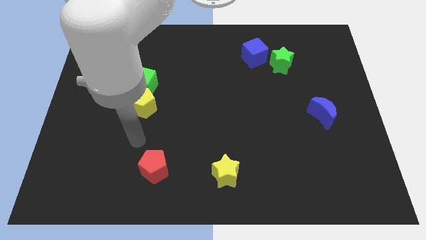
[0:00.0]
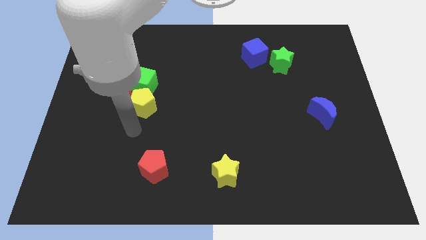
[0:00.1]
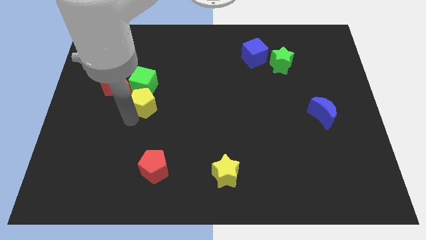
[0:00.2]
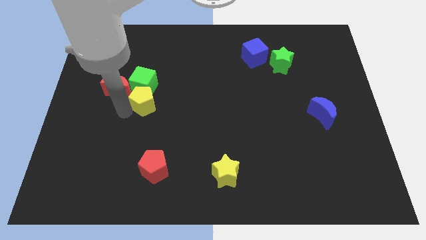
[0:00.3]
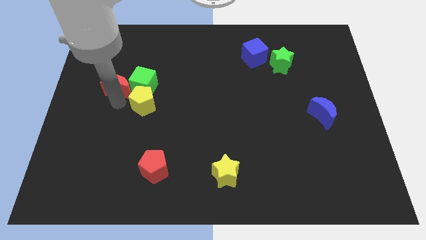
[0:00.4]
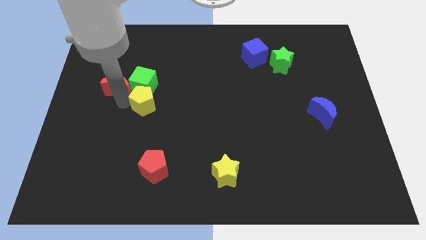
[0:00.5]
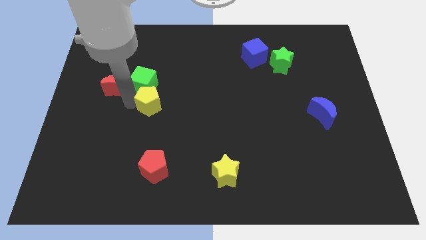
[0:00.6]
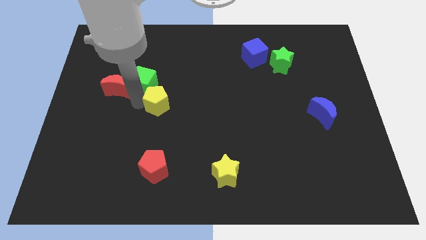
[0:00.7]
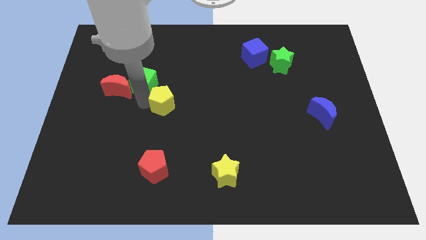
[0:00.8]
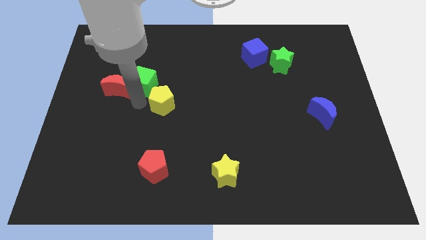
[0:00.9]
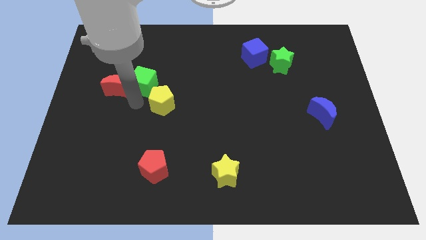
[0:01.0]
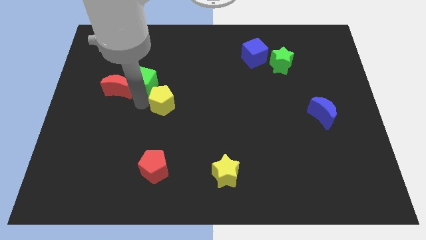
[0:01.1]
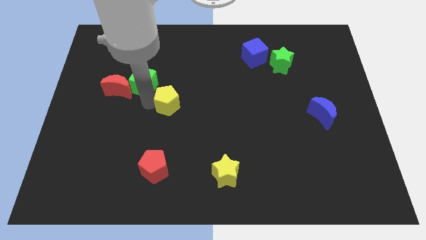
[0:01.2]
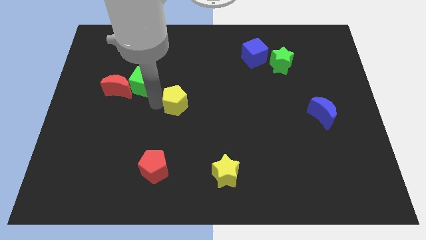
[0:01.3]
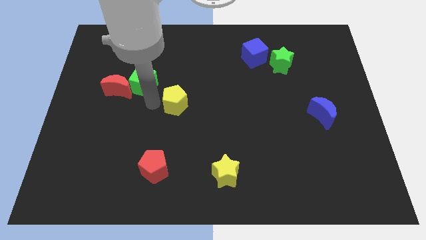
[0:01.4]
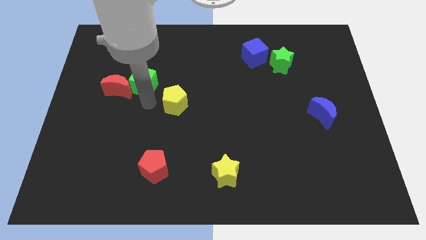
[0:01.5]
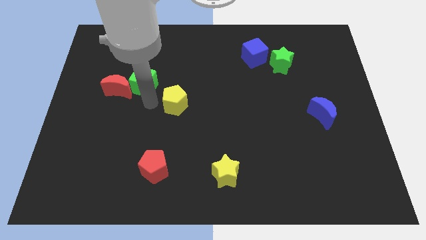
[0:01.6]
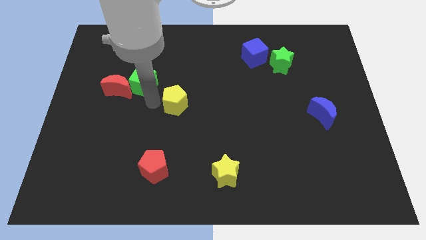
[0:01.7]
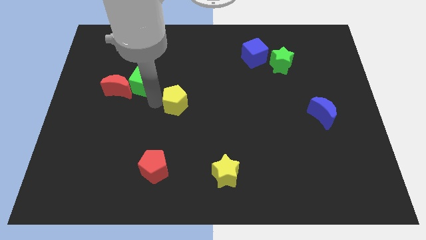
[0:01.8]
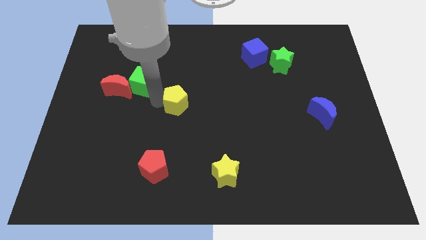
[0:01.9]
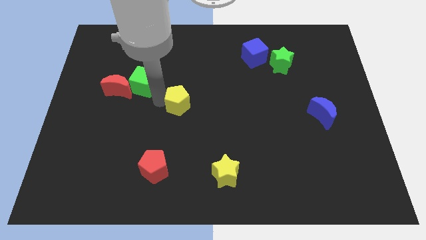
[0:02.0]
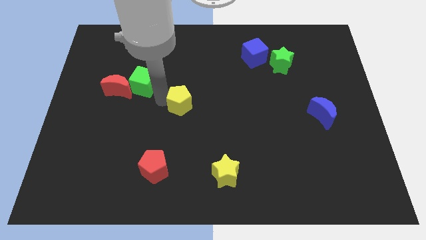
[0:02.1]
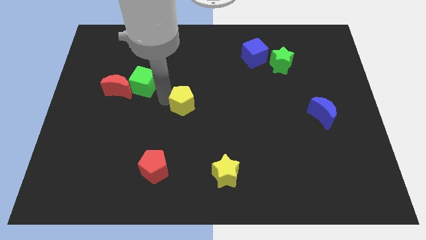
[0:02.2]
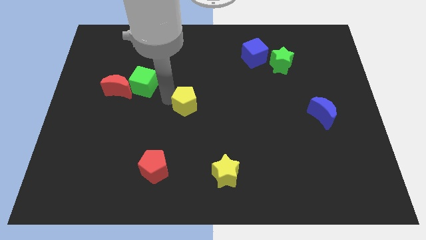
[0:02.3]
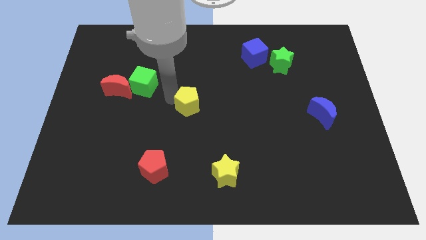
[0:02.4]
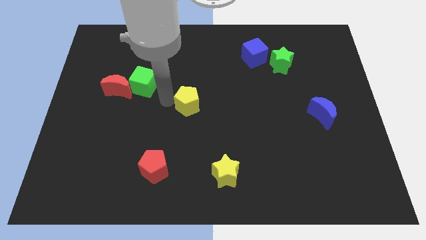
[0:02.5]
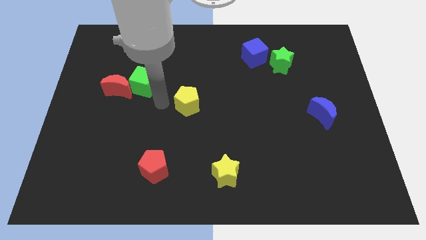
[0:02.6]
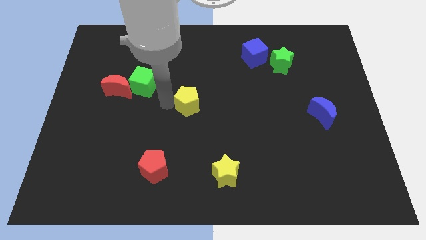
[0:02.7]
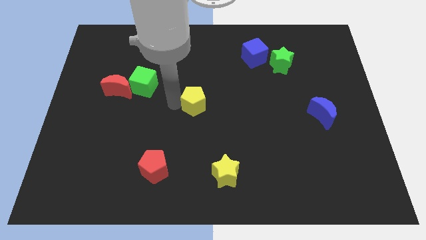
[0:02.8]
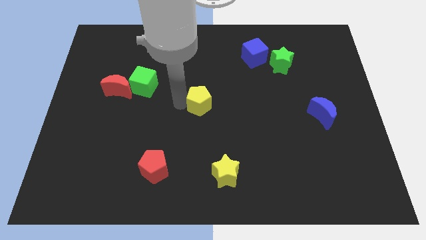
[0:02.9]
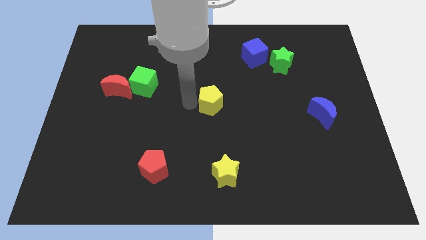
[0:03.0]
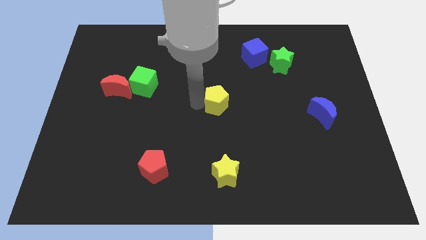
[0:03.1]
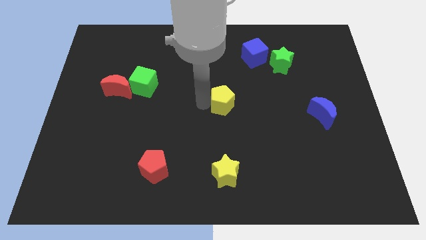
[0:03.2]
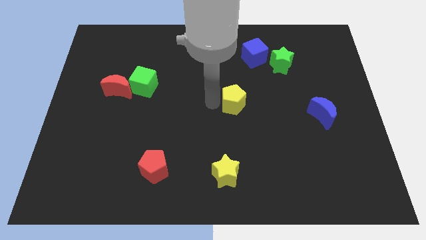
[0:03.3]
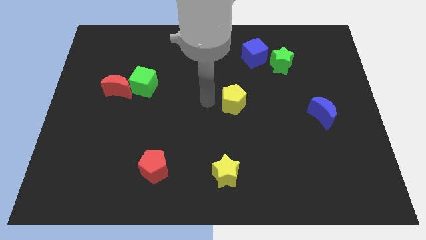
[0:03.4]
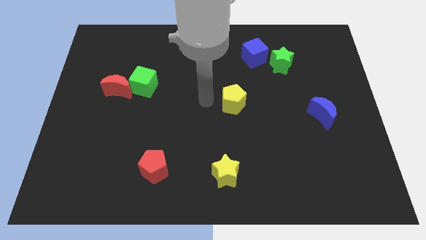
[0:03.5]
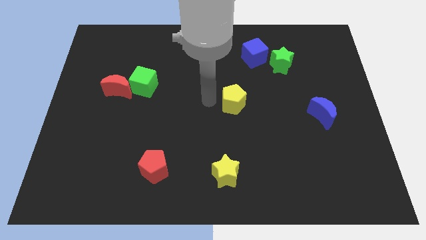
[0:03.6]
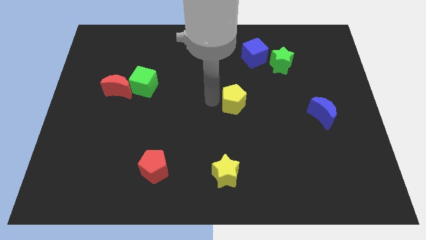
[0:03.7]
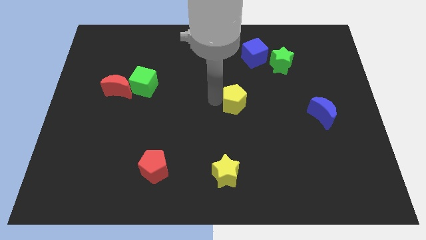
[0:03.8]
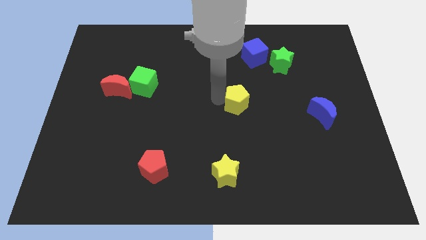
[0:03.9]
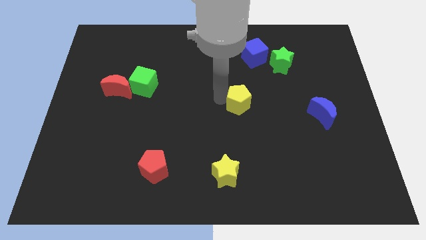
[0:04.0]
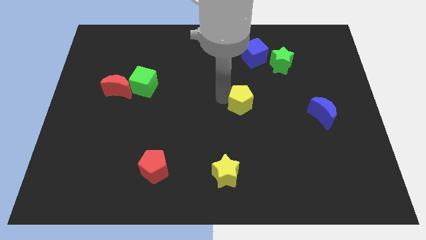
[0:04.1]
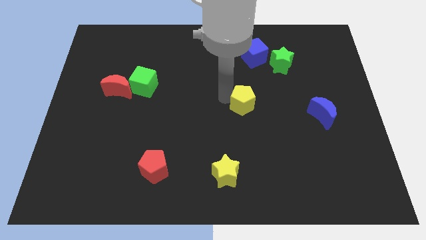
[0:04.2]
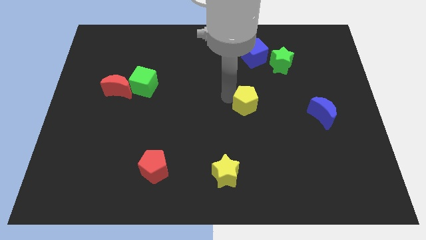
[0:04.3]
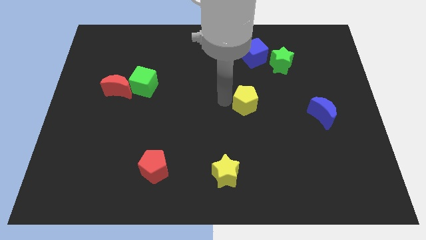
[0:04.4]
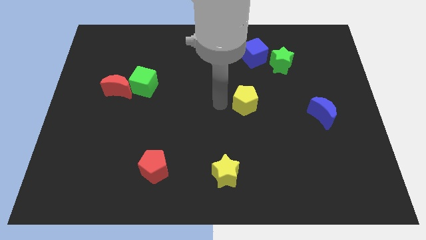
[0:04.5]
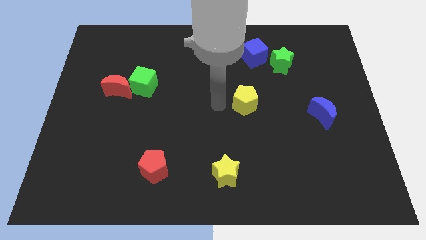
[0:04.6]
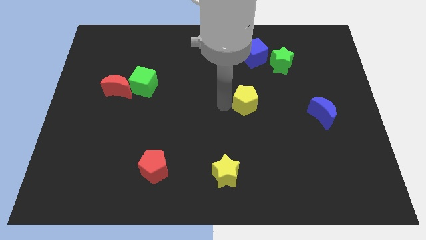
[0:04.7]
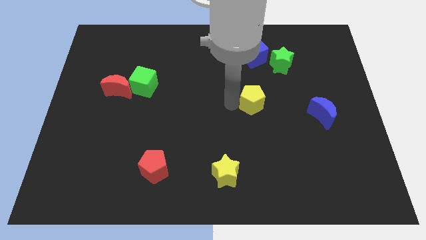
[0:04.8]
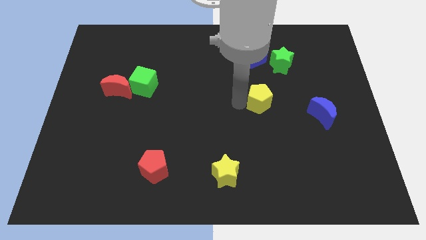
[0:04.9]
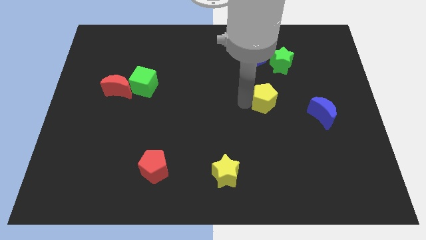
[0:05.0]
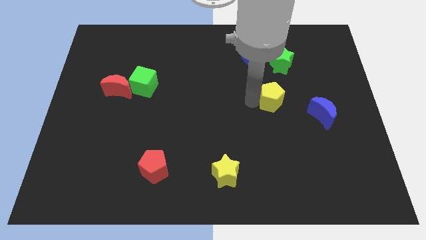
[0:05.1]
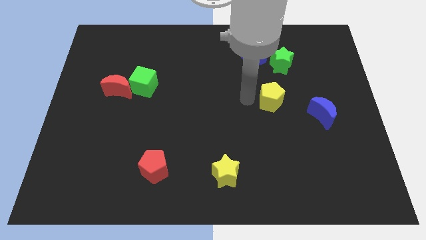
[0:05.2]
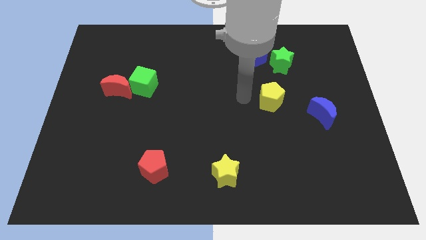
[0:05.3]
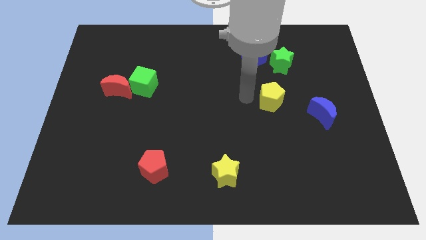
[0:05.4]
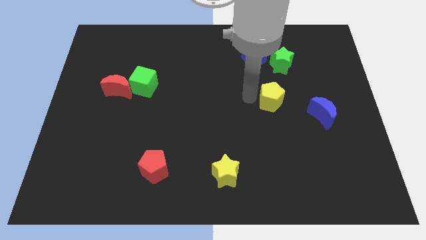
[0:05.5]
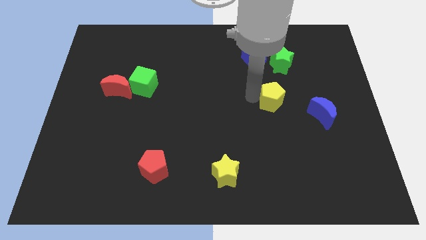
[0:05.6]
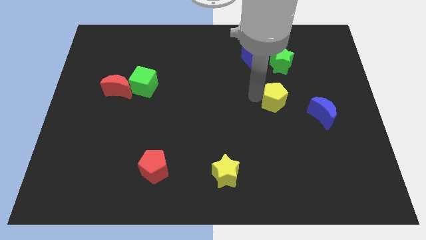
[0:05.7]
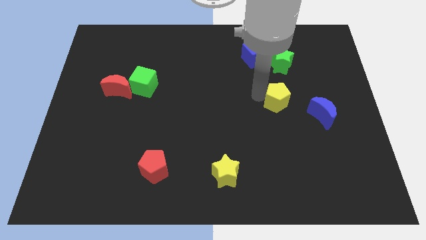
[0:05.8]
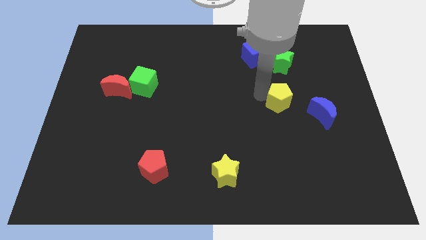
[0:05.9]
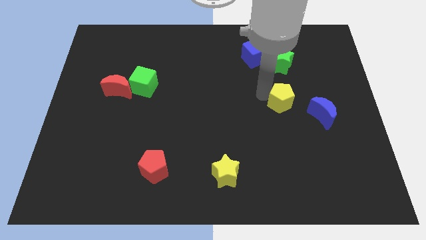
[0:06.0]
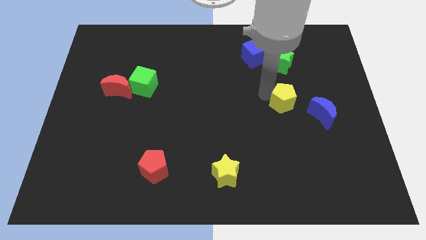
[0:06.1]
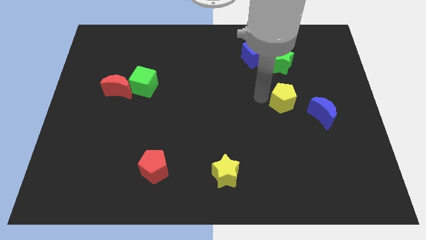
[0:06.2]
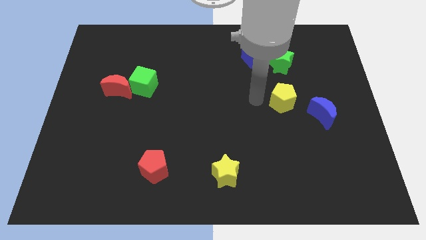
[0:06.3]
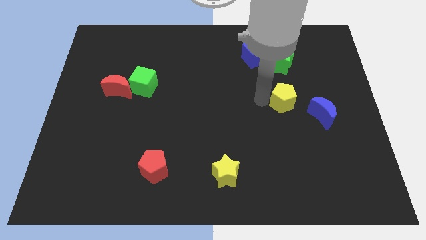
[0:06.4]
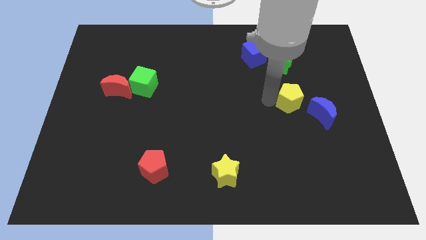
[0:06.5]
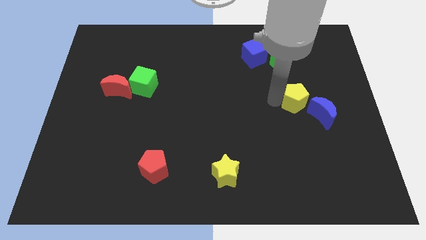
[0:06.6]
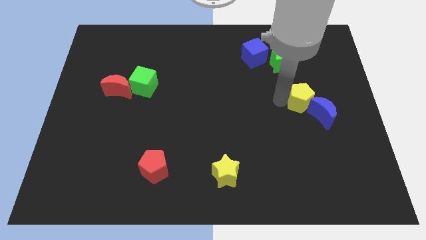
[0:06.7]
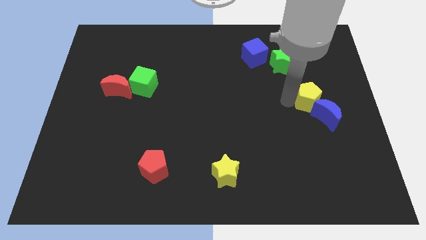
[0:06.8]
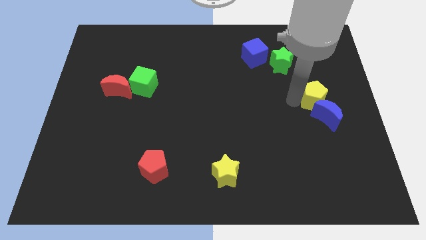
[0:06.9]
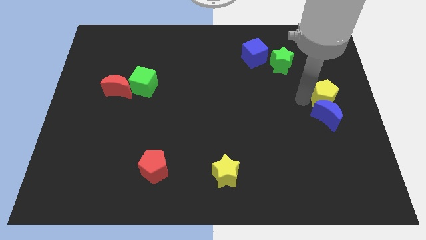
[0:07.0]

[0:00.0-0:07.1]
slide the yellow pentagon to the center right
